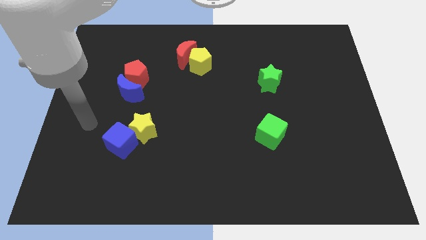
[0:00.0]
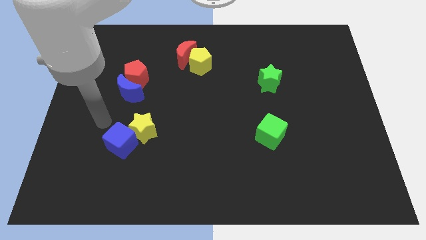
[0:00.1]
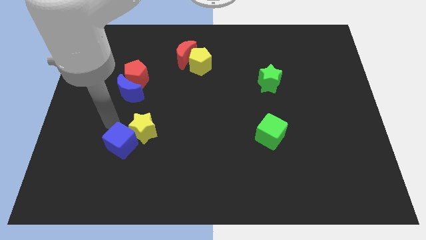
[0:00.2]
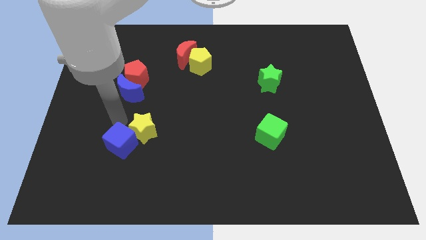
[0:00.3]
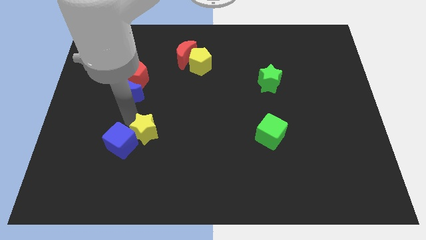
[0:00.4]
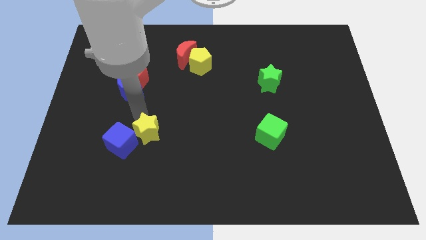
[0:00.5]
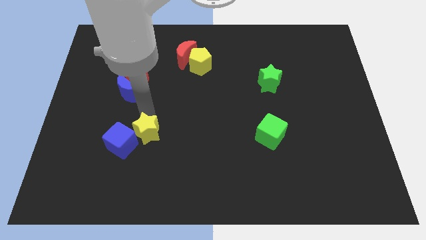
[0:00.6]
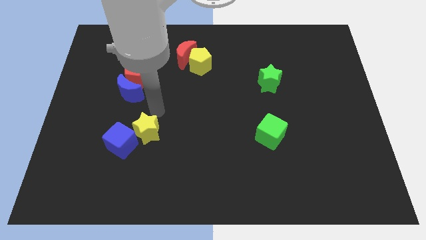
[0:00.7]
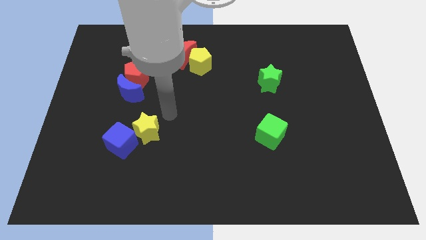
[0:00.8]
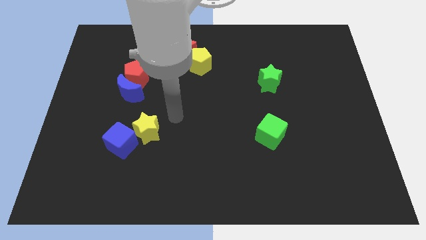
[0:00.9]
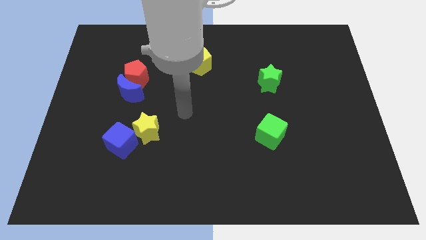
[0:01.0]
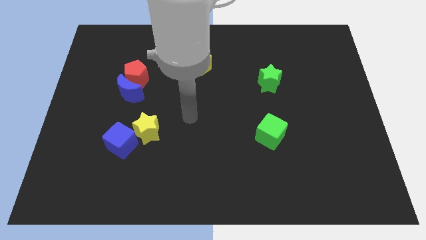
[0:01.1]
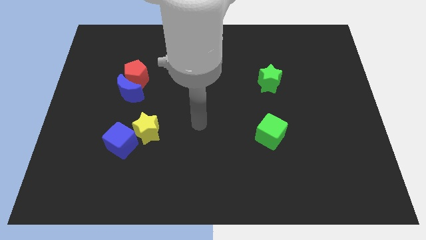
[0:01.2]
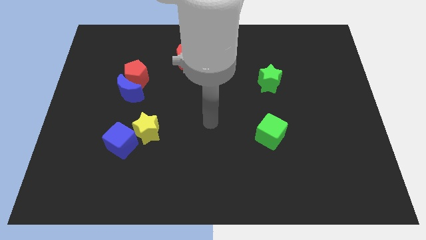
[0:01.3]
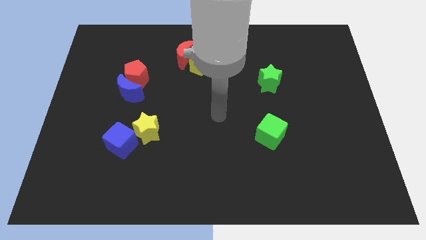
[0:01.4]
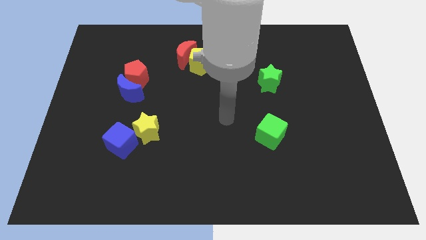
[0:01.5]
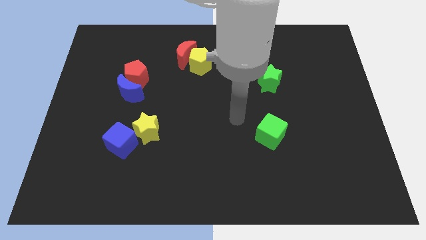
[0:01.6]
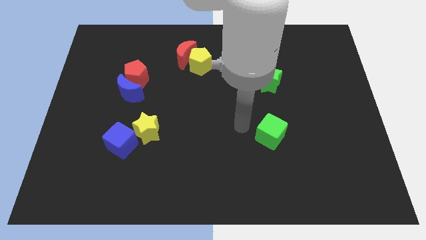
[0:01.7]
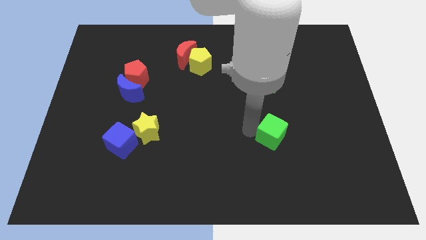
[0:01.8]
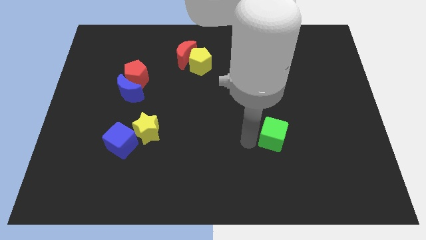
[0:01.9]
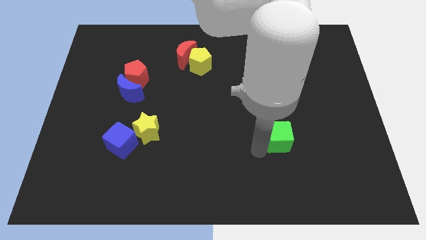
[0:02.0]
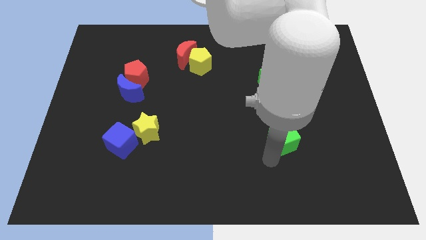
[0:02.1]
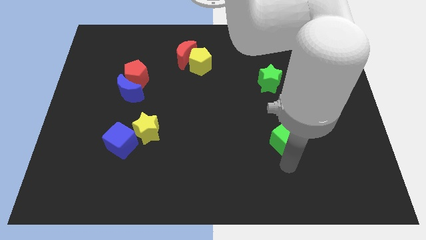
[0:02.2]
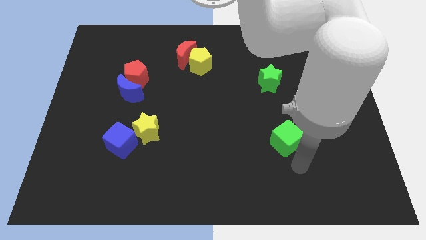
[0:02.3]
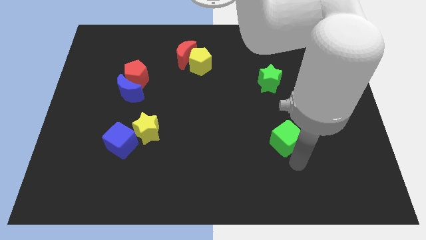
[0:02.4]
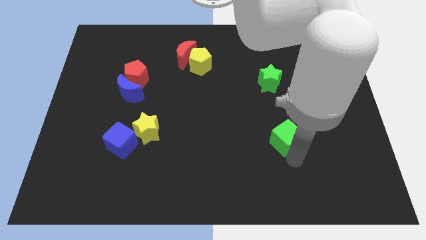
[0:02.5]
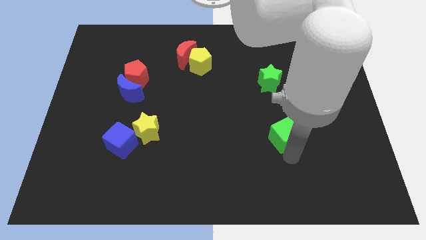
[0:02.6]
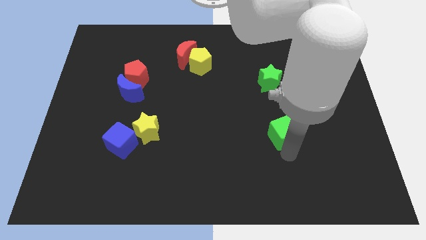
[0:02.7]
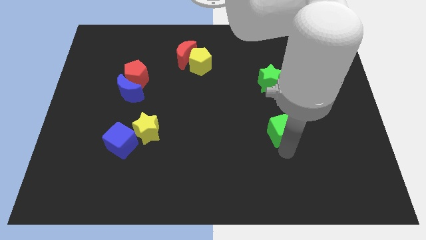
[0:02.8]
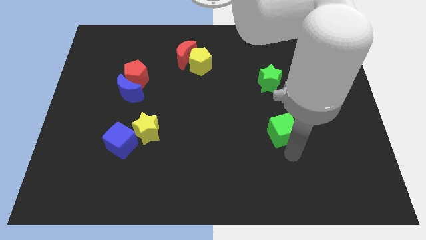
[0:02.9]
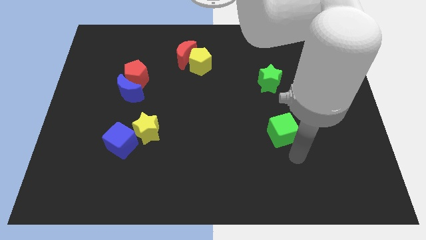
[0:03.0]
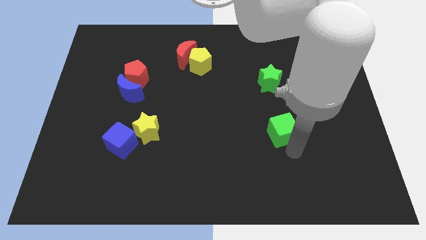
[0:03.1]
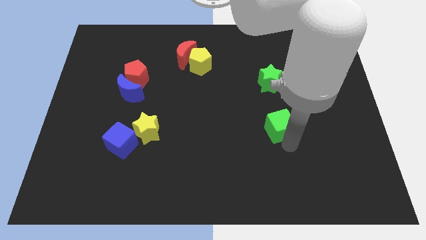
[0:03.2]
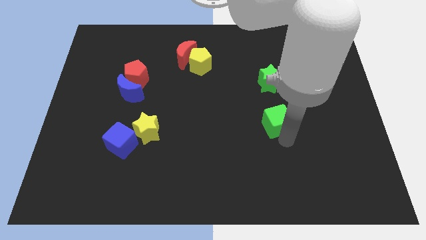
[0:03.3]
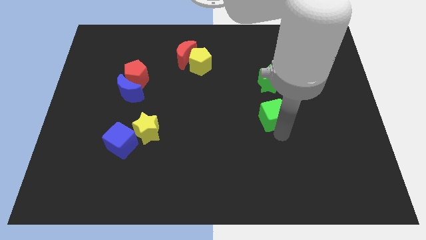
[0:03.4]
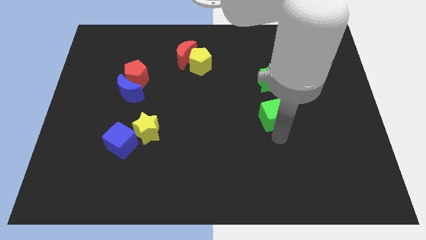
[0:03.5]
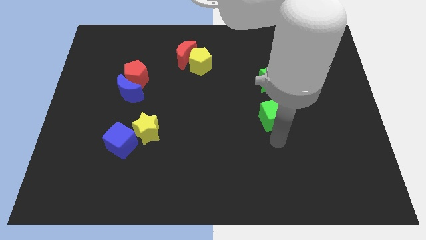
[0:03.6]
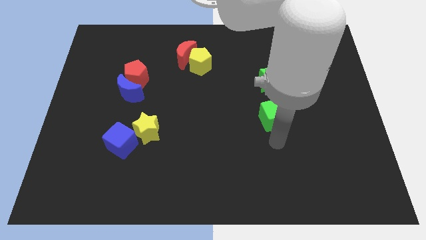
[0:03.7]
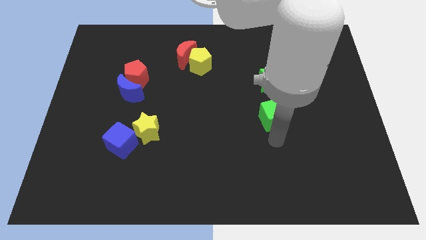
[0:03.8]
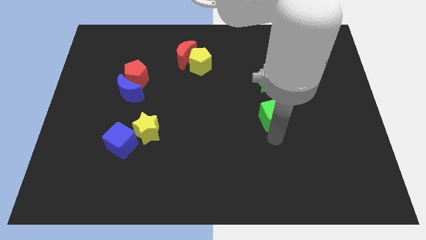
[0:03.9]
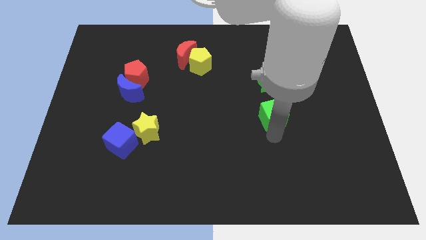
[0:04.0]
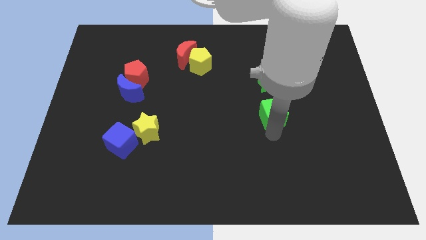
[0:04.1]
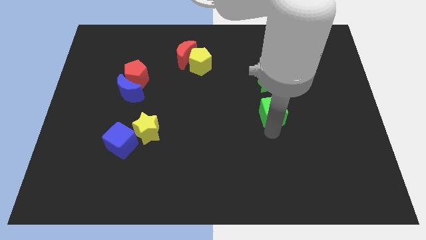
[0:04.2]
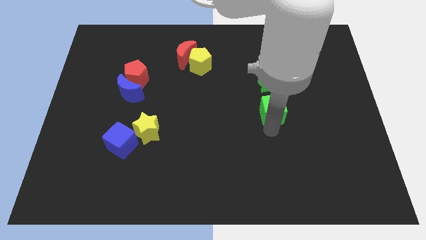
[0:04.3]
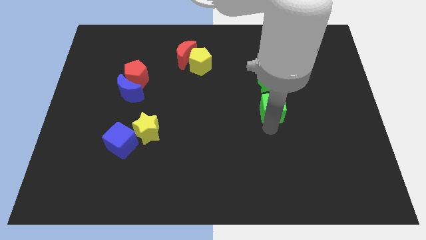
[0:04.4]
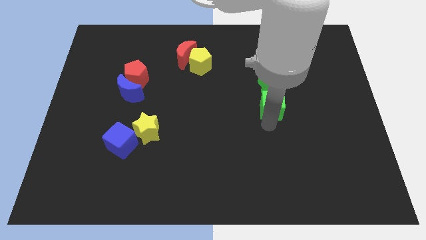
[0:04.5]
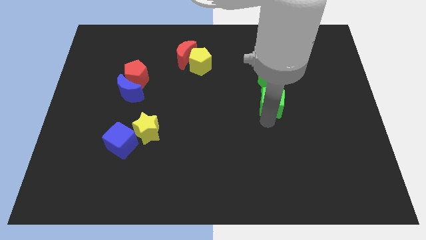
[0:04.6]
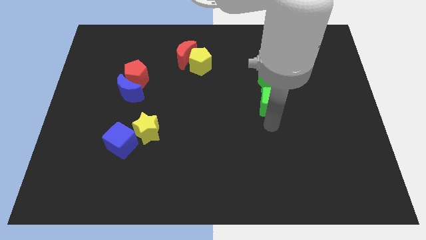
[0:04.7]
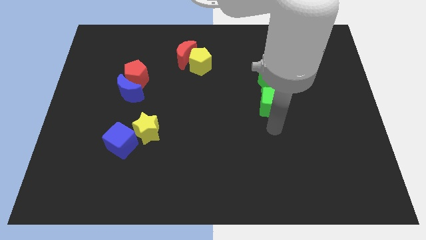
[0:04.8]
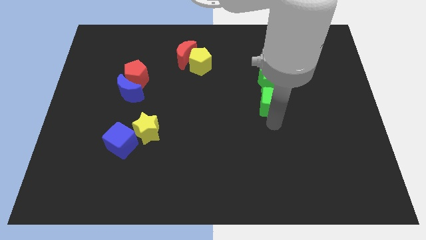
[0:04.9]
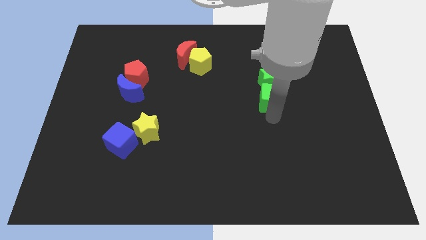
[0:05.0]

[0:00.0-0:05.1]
push the green cube towards the green star

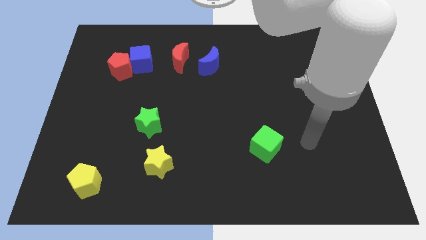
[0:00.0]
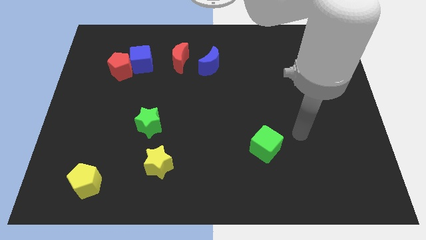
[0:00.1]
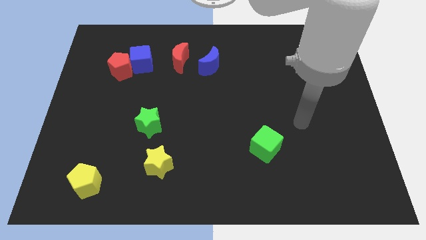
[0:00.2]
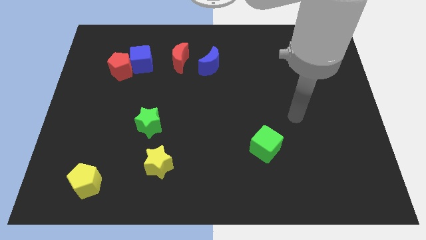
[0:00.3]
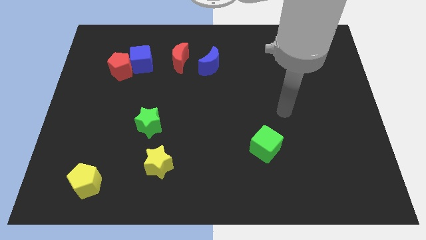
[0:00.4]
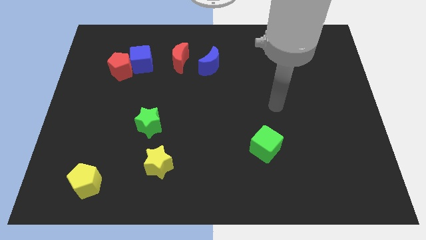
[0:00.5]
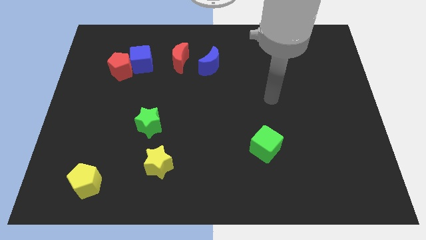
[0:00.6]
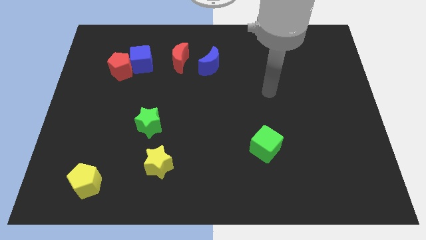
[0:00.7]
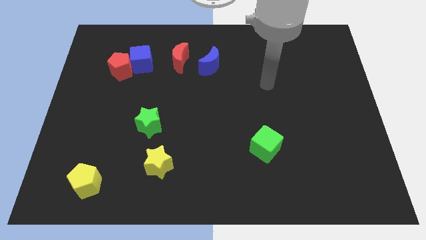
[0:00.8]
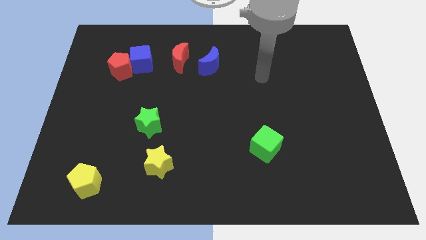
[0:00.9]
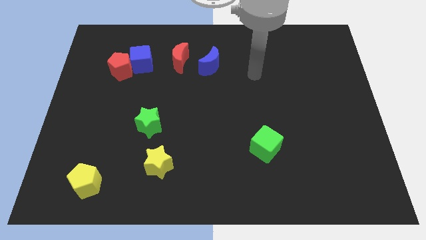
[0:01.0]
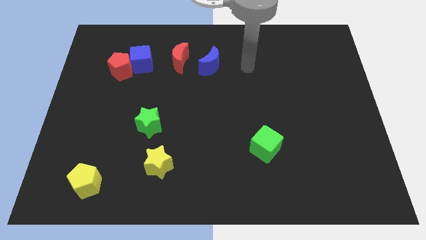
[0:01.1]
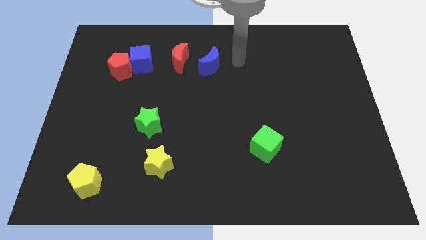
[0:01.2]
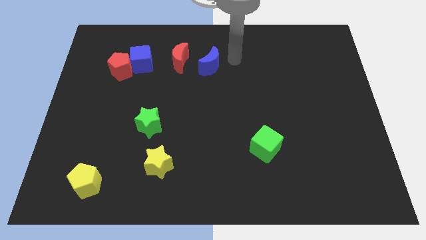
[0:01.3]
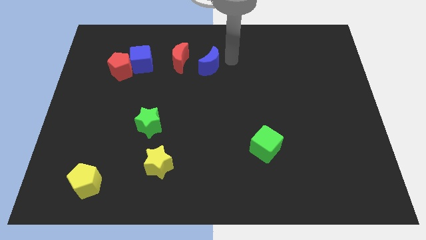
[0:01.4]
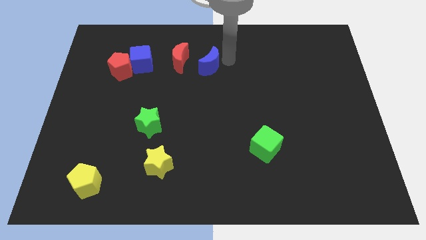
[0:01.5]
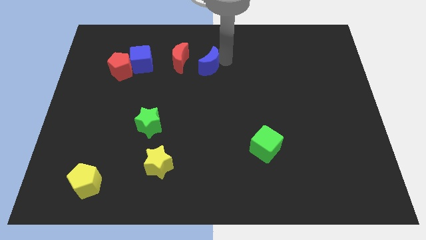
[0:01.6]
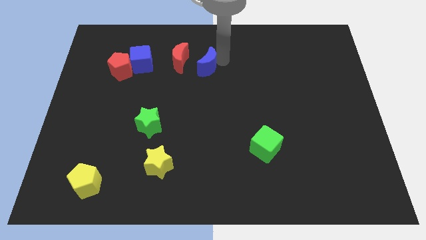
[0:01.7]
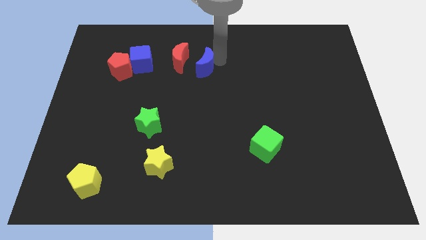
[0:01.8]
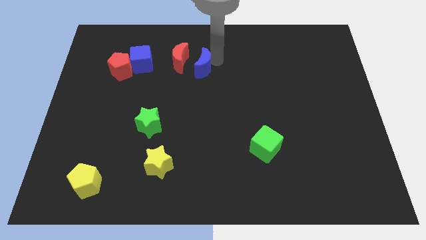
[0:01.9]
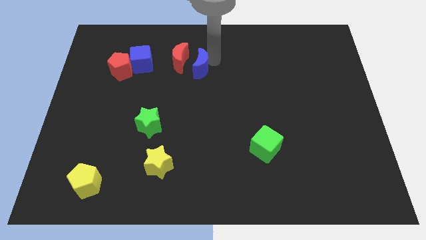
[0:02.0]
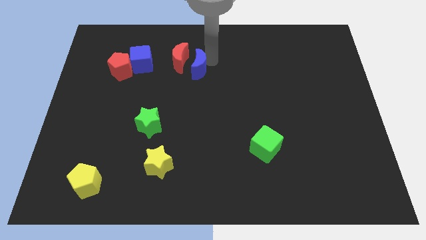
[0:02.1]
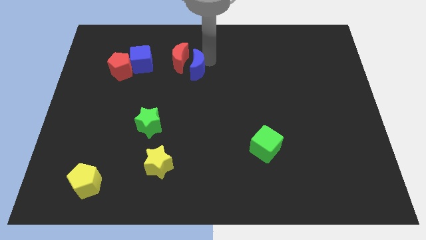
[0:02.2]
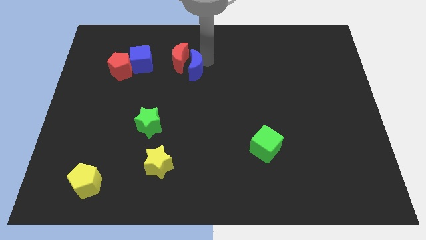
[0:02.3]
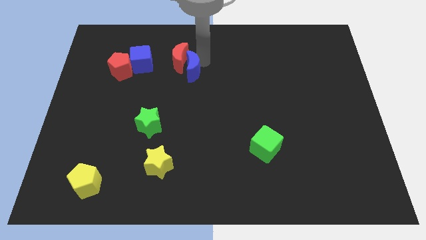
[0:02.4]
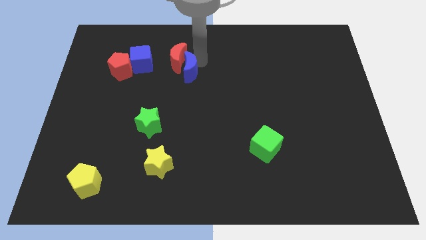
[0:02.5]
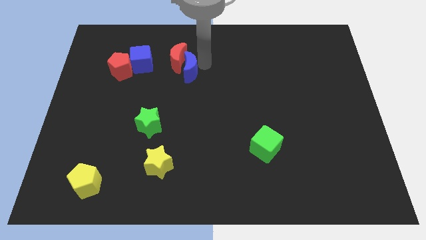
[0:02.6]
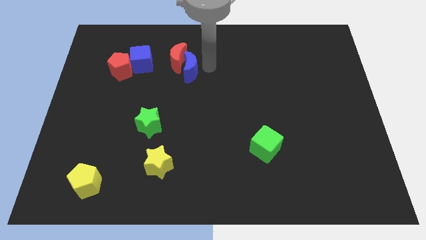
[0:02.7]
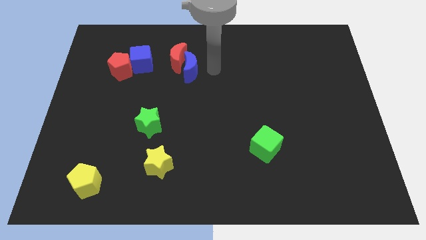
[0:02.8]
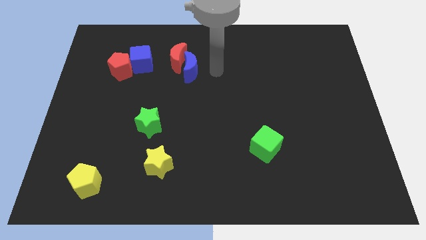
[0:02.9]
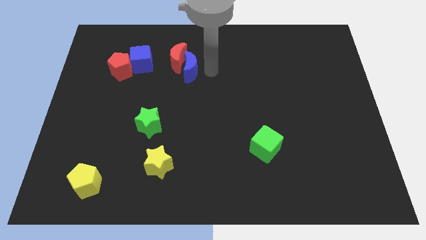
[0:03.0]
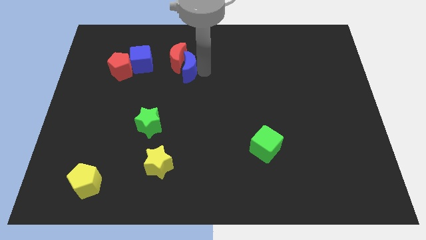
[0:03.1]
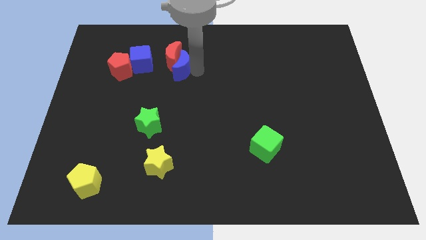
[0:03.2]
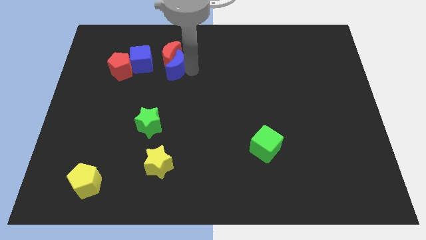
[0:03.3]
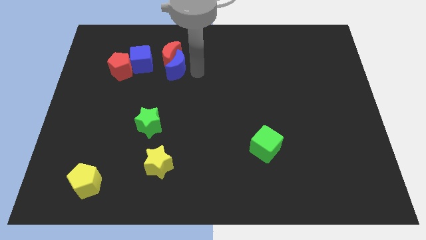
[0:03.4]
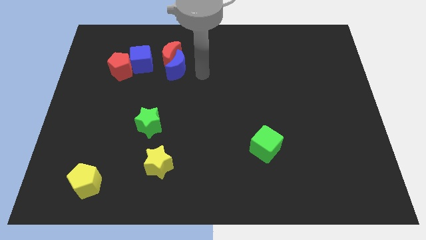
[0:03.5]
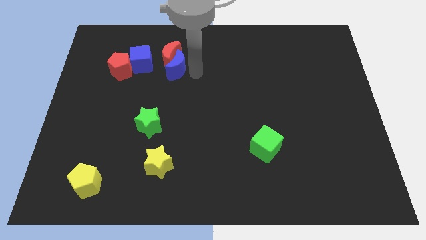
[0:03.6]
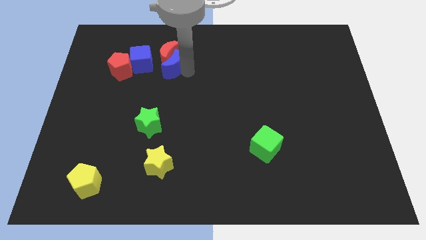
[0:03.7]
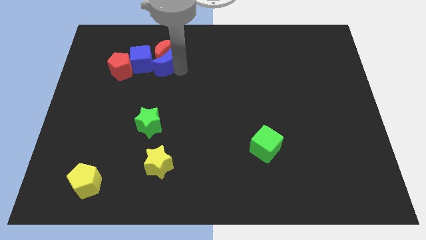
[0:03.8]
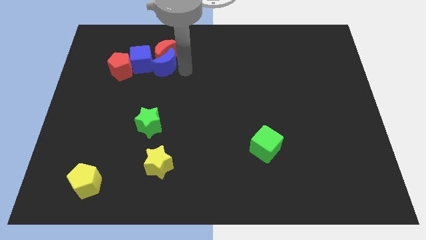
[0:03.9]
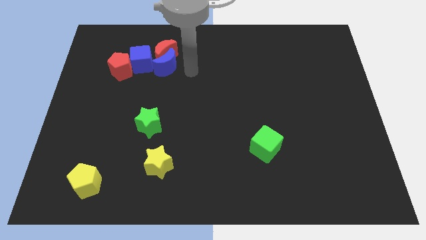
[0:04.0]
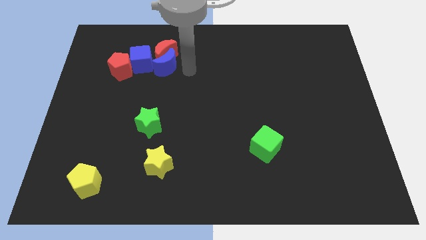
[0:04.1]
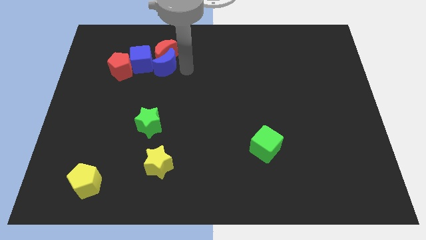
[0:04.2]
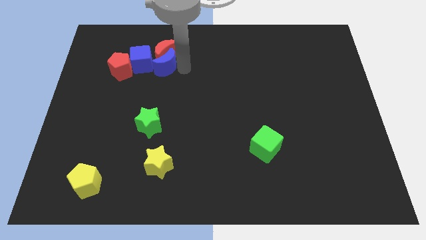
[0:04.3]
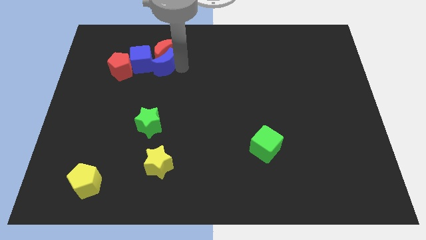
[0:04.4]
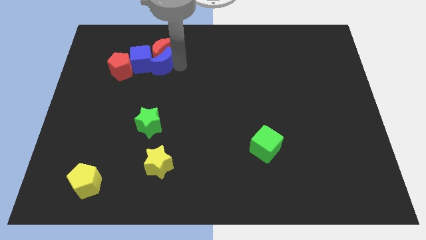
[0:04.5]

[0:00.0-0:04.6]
put the blue moon to the blue cube
